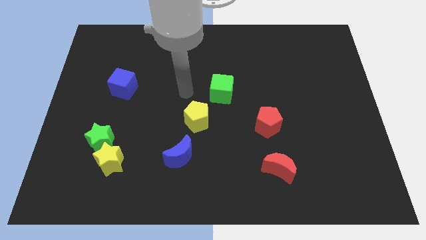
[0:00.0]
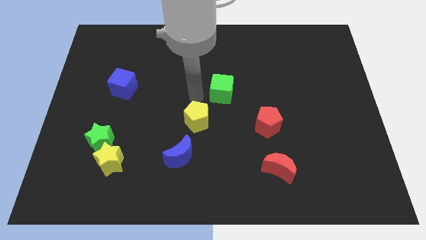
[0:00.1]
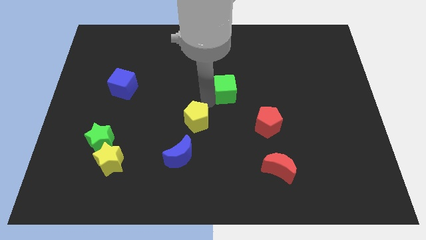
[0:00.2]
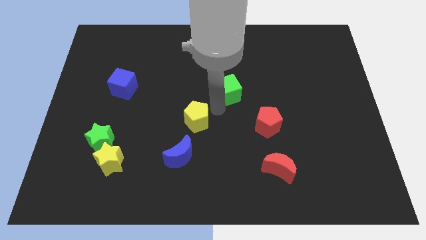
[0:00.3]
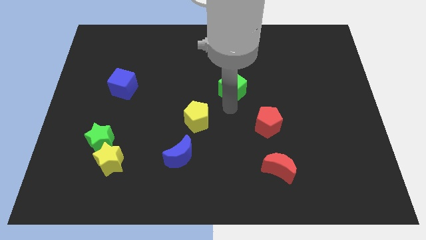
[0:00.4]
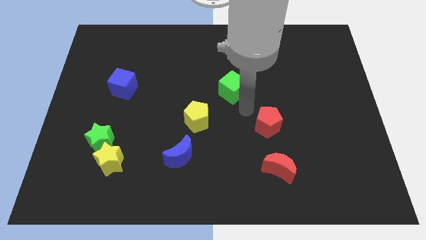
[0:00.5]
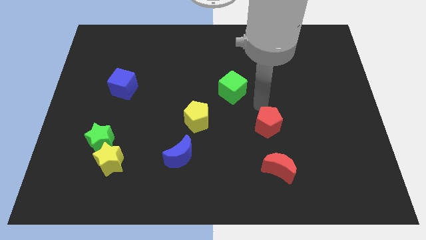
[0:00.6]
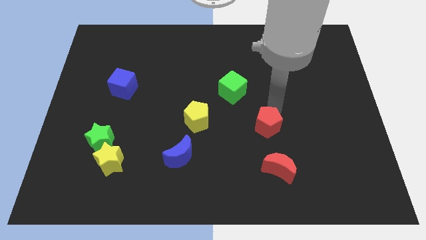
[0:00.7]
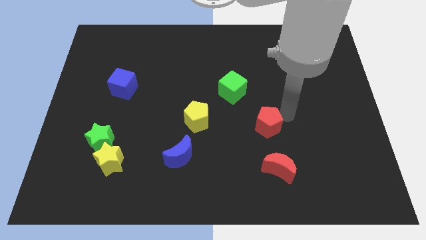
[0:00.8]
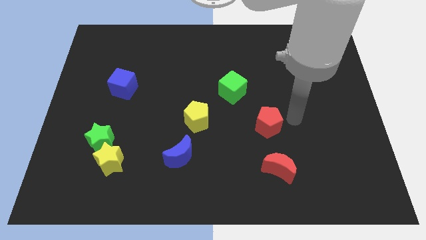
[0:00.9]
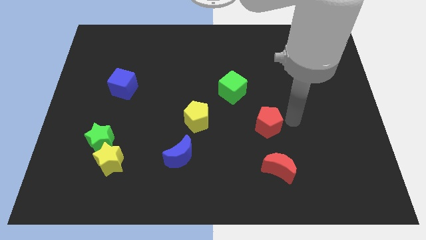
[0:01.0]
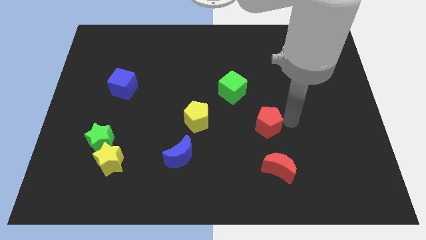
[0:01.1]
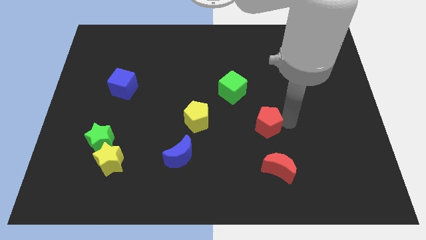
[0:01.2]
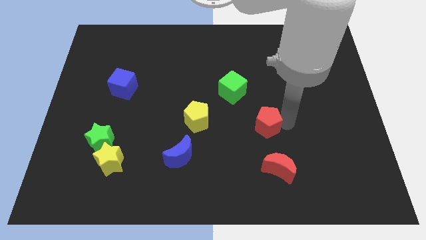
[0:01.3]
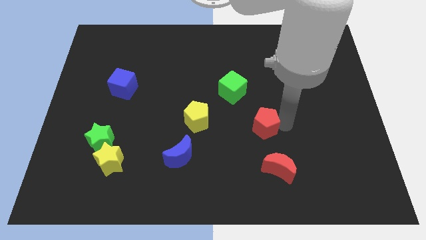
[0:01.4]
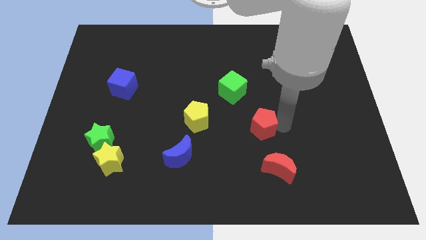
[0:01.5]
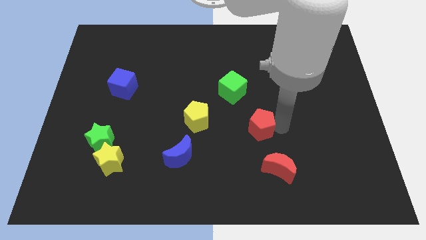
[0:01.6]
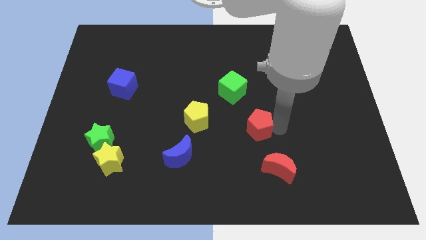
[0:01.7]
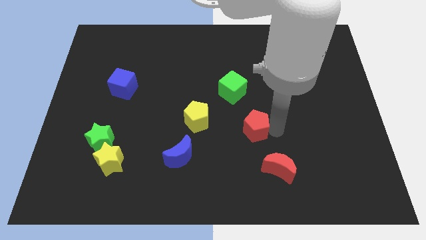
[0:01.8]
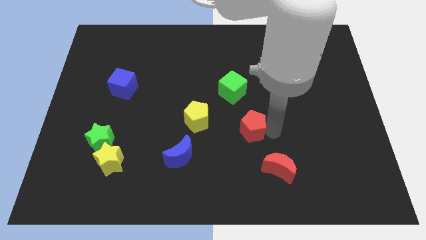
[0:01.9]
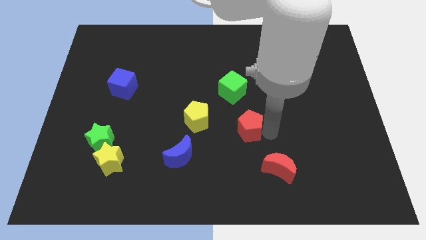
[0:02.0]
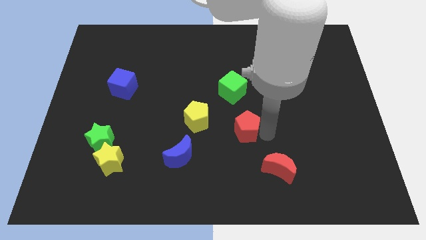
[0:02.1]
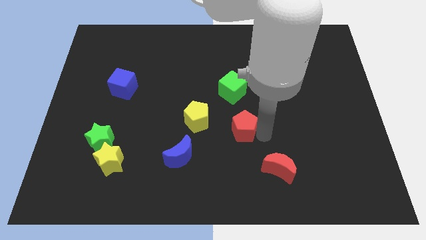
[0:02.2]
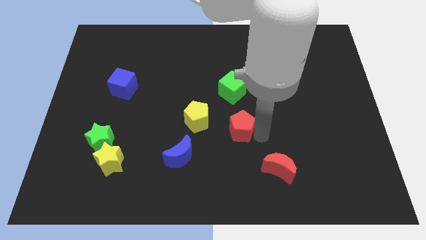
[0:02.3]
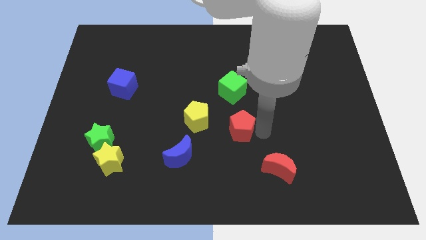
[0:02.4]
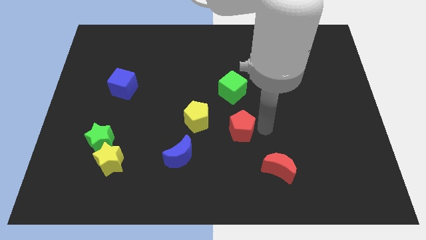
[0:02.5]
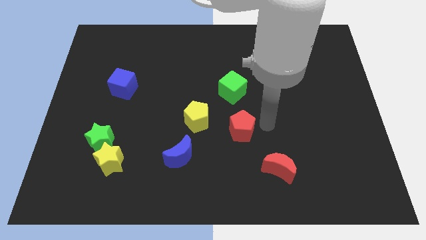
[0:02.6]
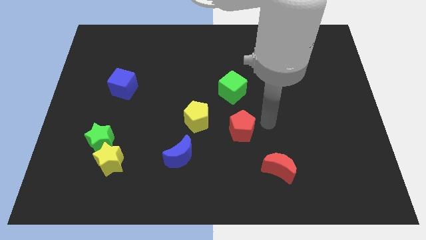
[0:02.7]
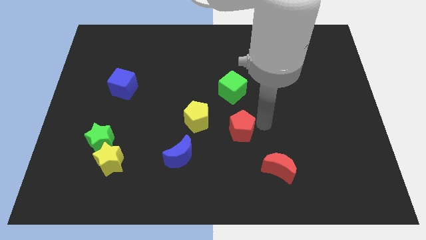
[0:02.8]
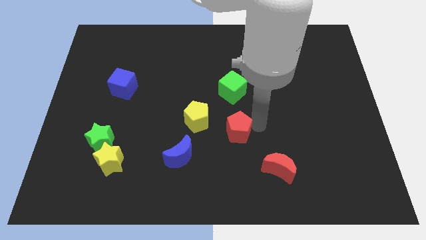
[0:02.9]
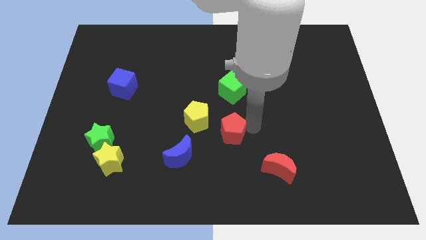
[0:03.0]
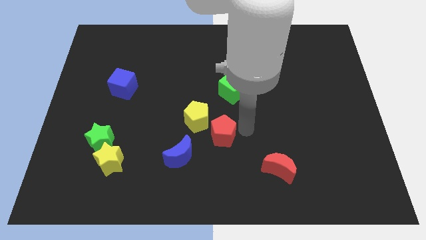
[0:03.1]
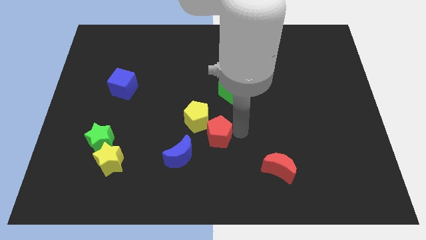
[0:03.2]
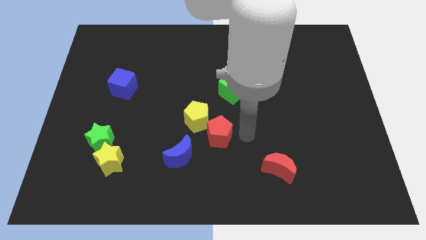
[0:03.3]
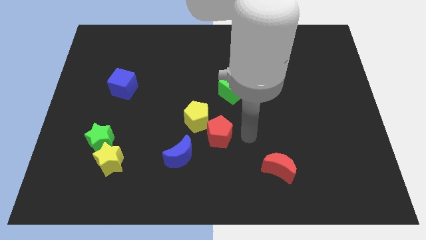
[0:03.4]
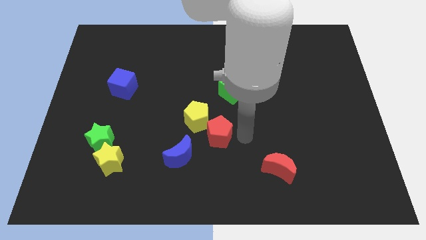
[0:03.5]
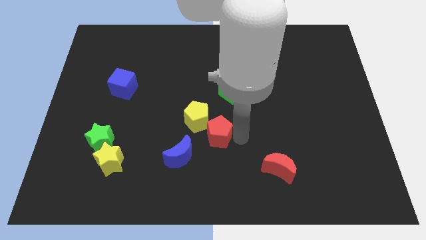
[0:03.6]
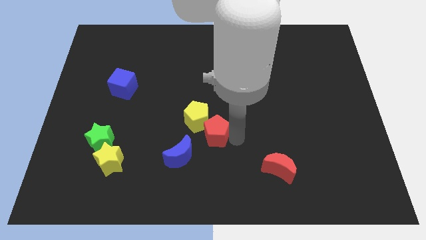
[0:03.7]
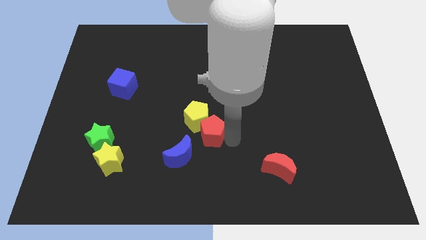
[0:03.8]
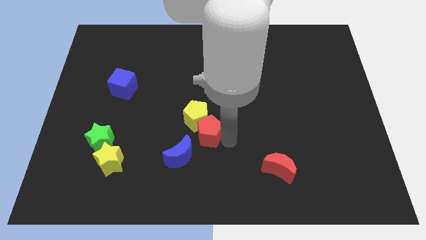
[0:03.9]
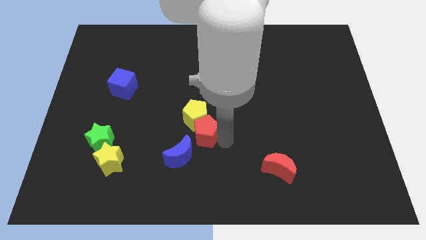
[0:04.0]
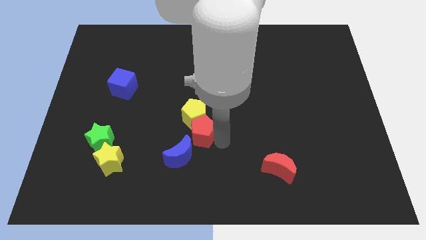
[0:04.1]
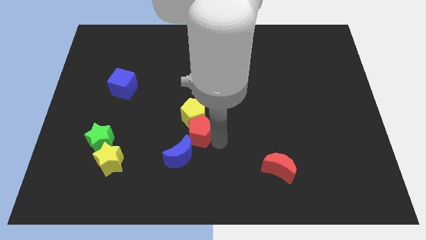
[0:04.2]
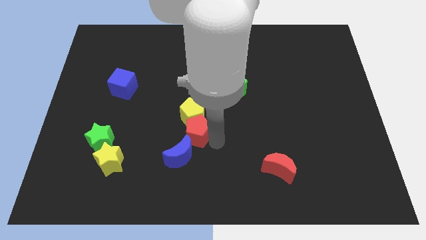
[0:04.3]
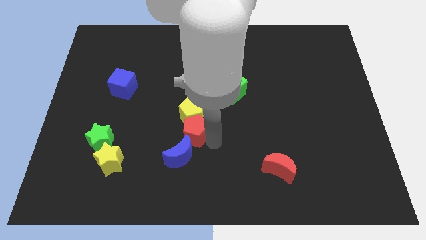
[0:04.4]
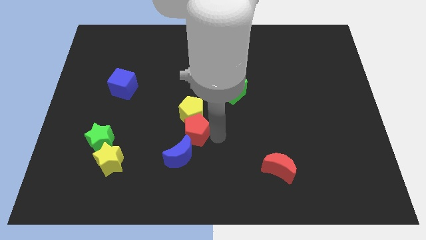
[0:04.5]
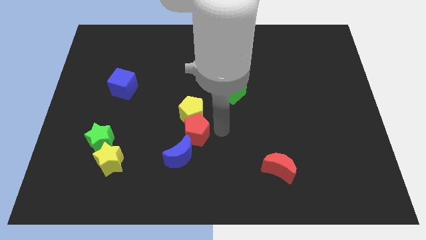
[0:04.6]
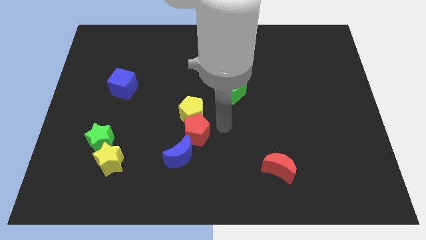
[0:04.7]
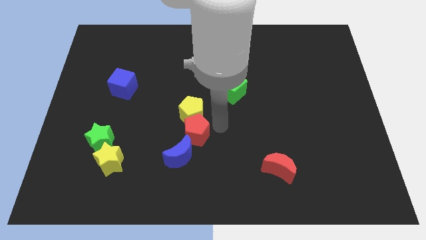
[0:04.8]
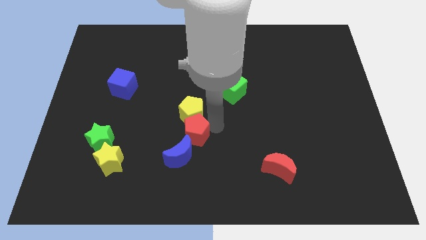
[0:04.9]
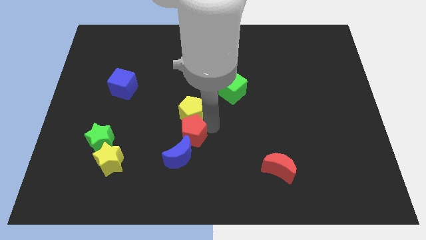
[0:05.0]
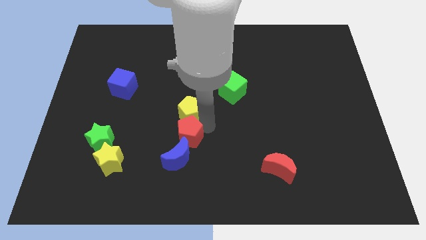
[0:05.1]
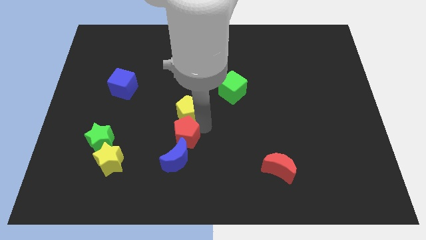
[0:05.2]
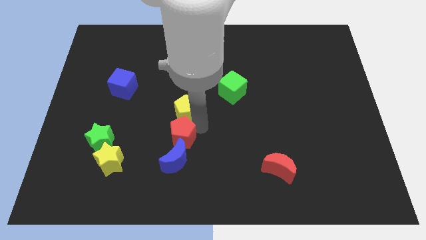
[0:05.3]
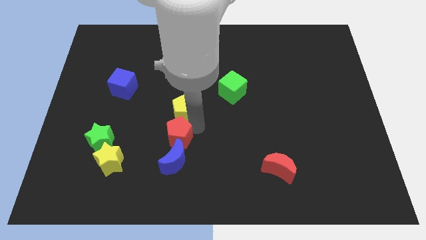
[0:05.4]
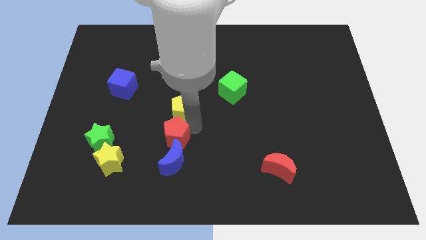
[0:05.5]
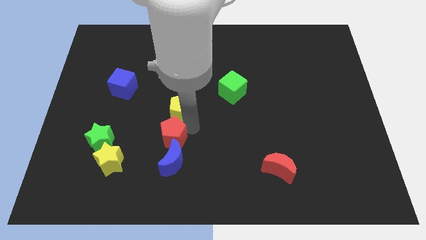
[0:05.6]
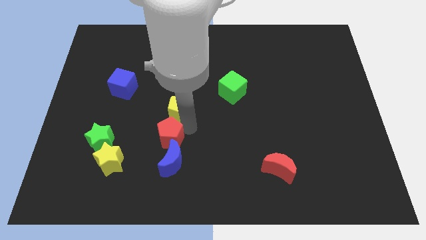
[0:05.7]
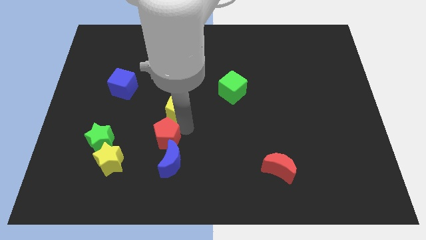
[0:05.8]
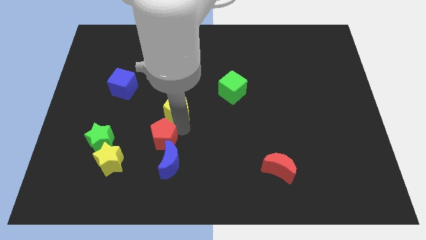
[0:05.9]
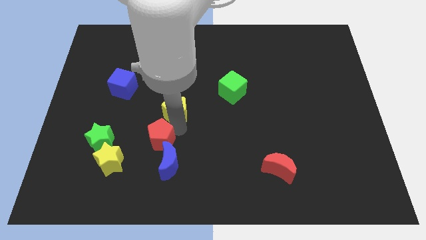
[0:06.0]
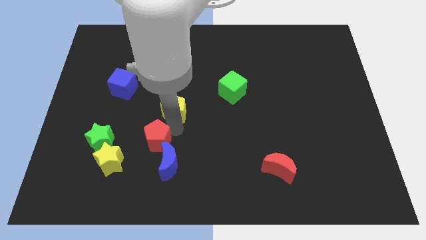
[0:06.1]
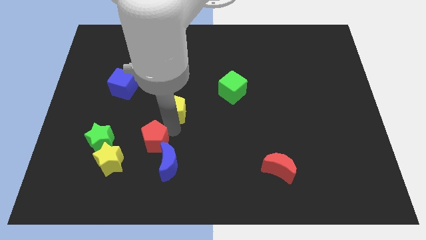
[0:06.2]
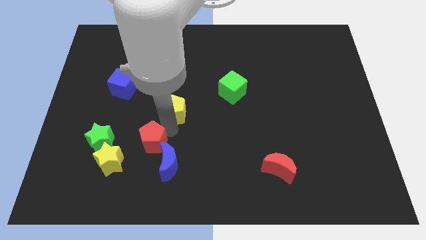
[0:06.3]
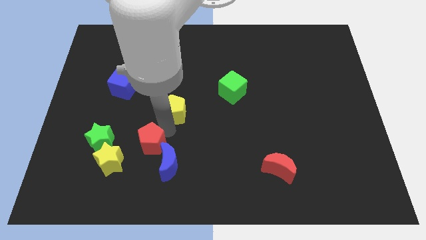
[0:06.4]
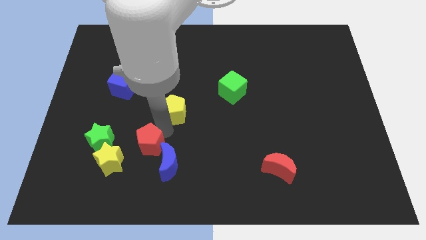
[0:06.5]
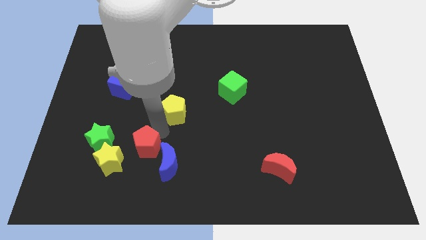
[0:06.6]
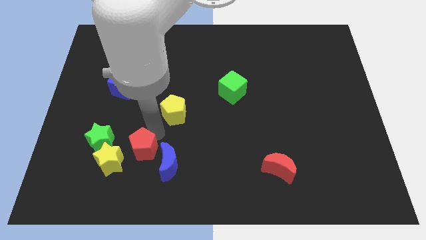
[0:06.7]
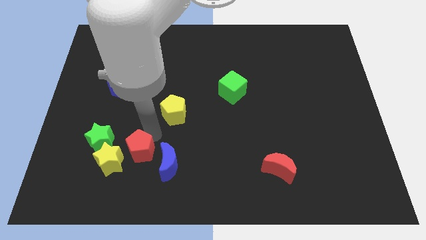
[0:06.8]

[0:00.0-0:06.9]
put the red pentagon close to the yellow star
